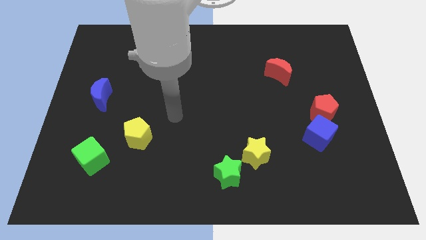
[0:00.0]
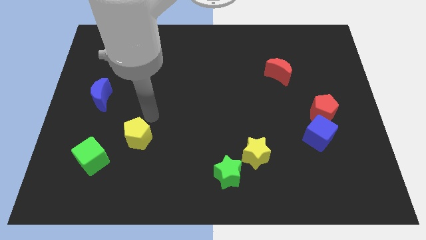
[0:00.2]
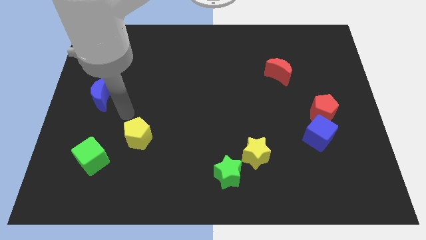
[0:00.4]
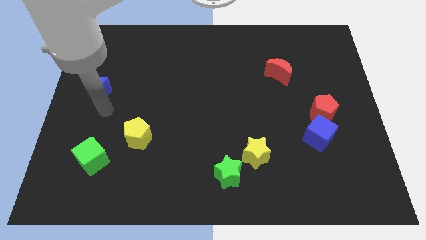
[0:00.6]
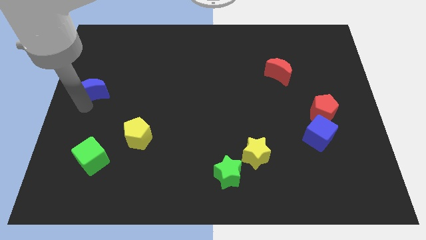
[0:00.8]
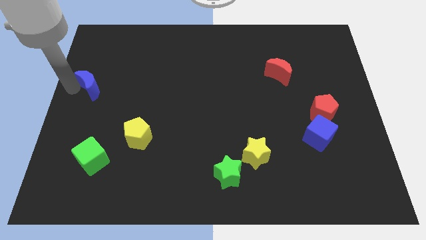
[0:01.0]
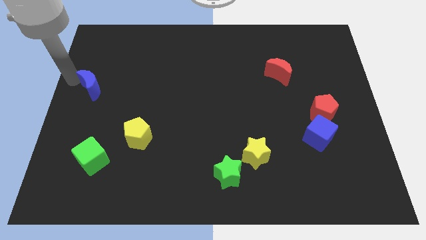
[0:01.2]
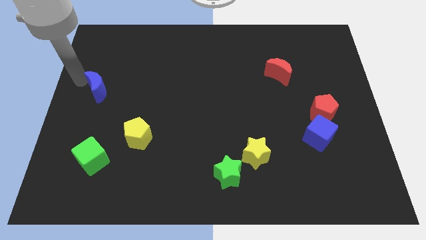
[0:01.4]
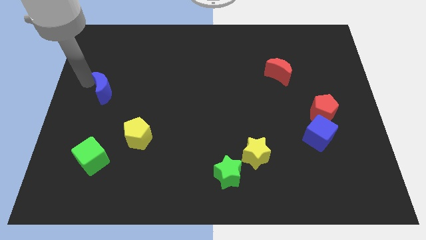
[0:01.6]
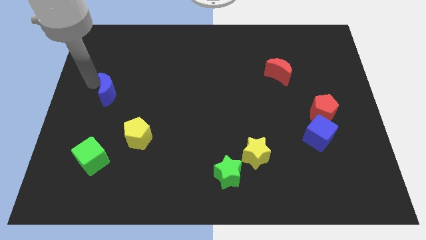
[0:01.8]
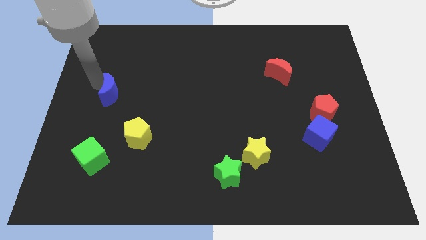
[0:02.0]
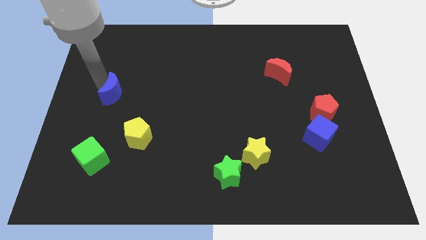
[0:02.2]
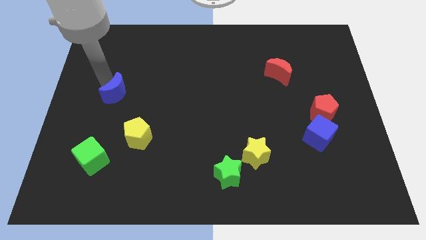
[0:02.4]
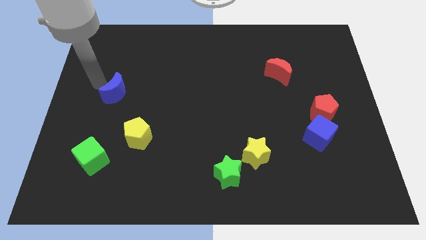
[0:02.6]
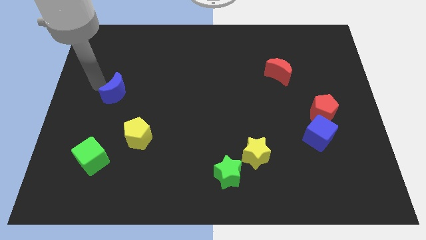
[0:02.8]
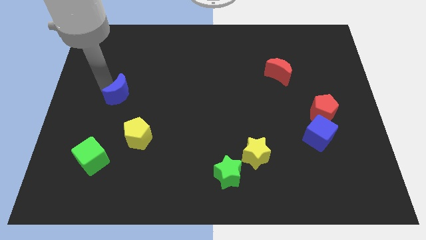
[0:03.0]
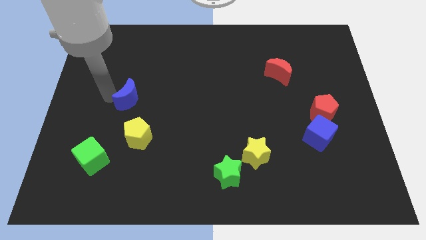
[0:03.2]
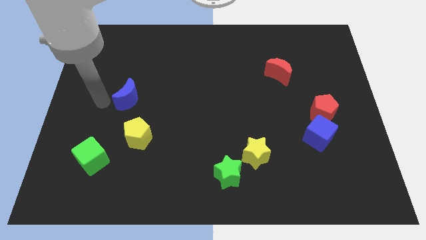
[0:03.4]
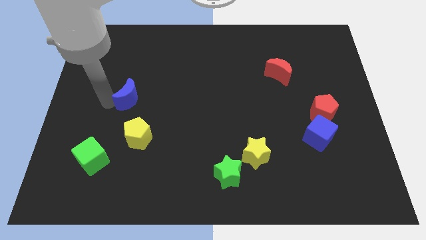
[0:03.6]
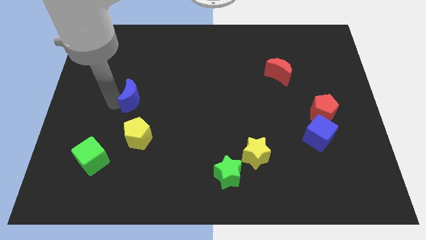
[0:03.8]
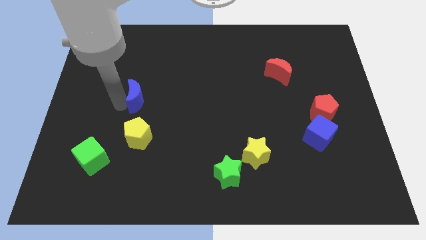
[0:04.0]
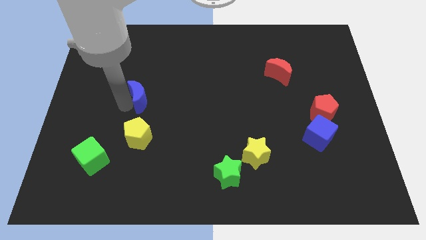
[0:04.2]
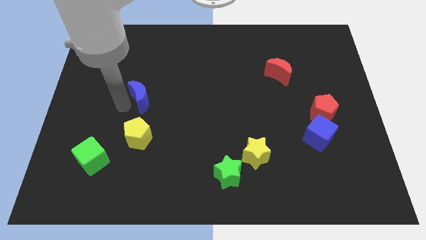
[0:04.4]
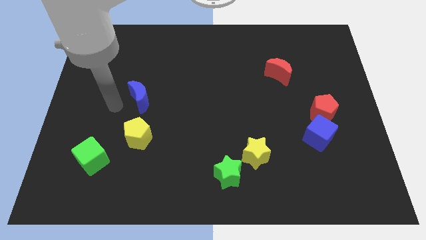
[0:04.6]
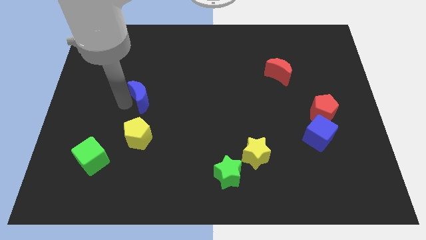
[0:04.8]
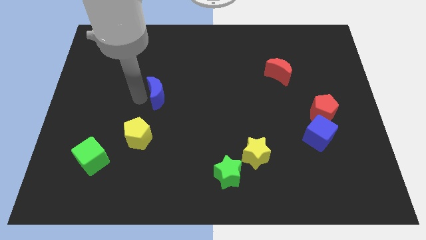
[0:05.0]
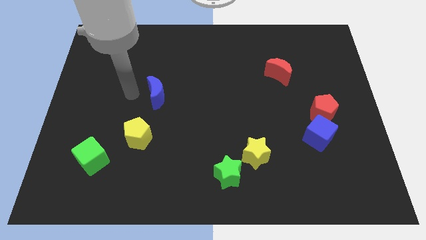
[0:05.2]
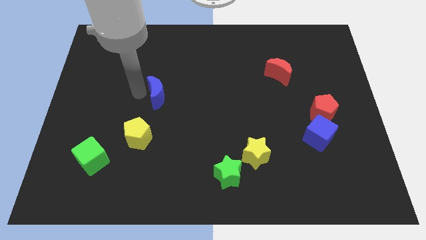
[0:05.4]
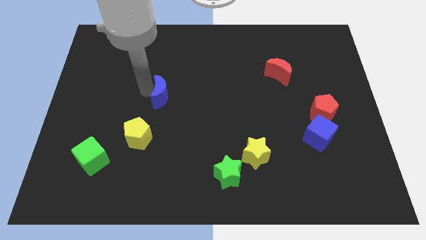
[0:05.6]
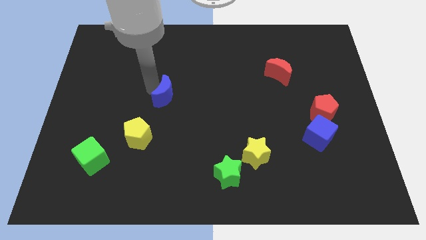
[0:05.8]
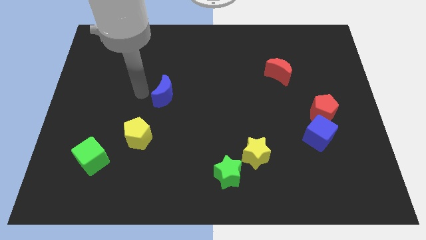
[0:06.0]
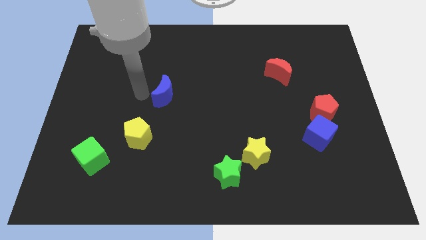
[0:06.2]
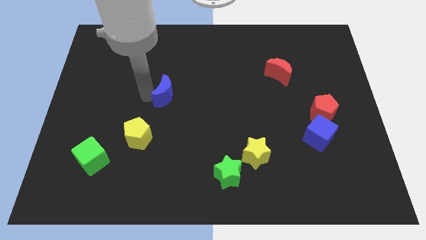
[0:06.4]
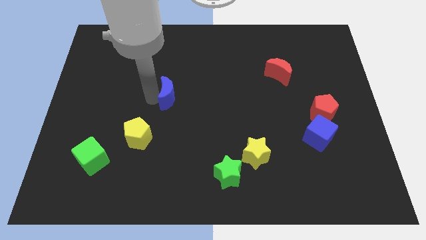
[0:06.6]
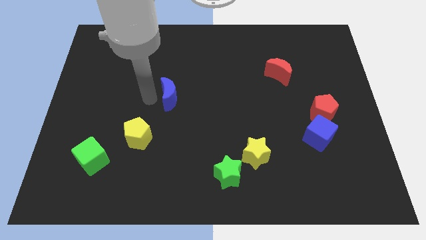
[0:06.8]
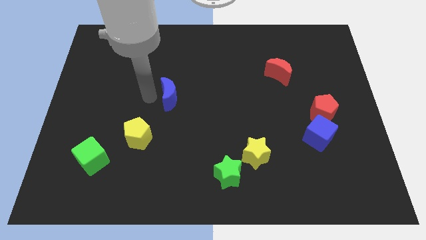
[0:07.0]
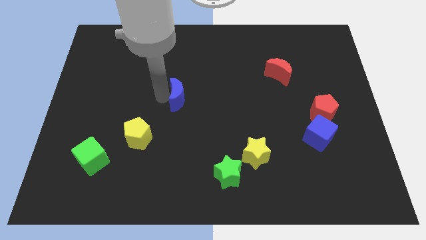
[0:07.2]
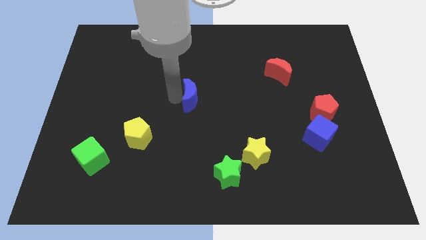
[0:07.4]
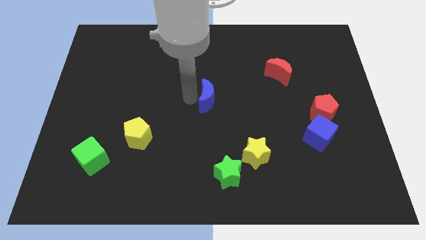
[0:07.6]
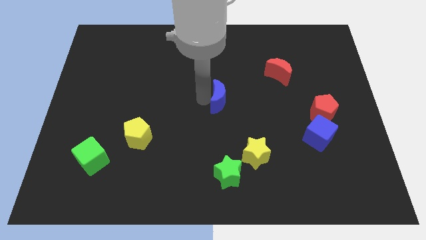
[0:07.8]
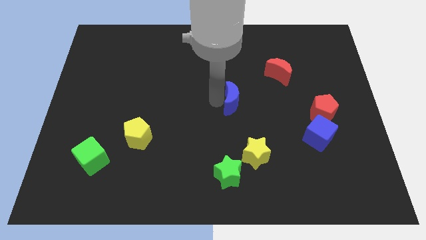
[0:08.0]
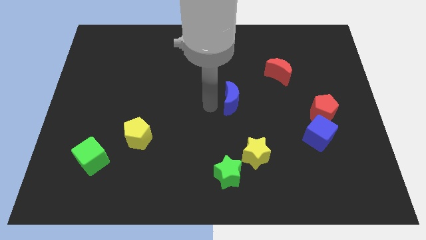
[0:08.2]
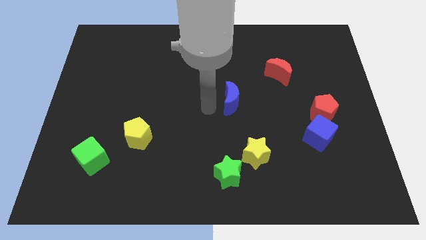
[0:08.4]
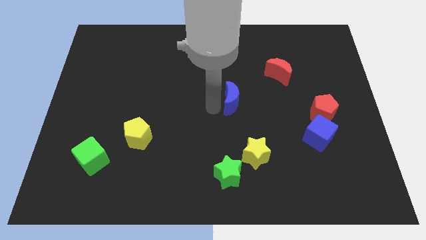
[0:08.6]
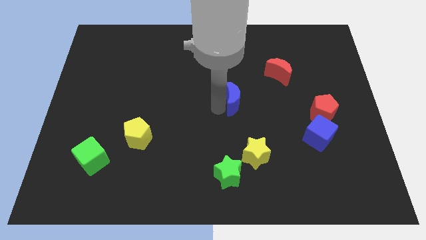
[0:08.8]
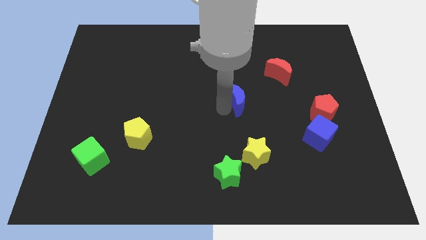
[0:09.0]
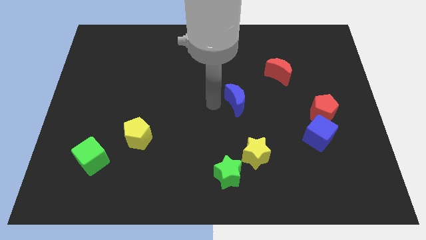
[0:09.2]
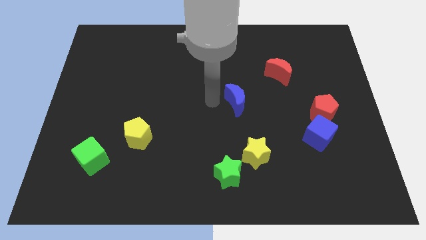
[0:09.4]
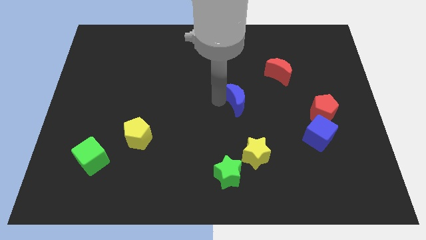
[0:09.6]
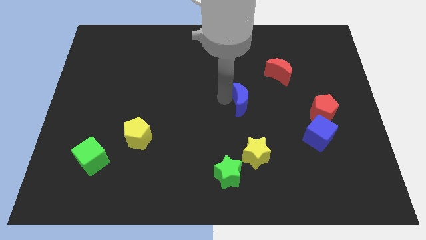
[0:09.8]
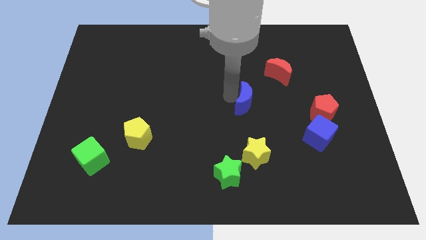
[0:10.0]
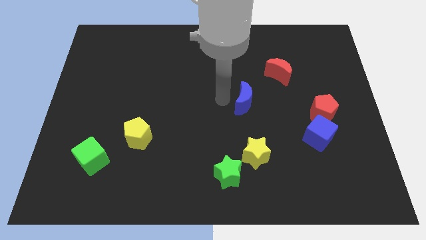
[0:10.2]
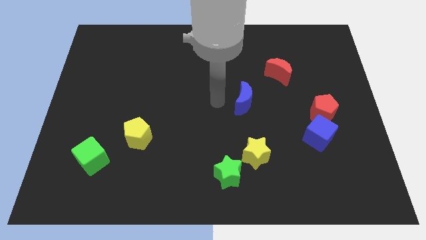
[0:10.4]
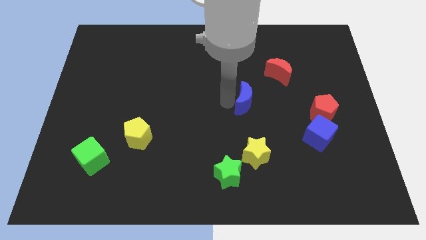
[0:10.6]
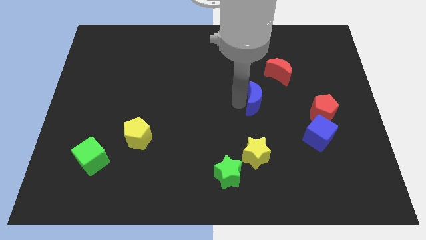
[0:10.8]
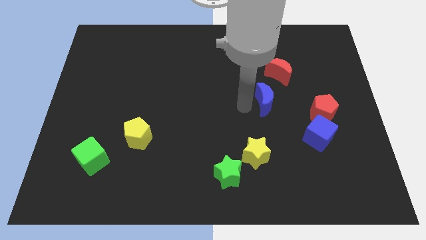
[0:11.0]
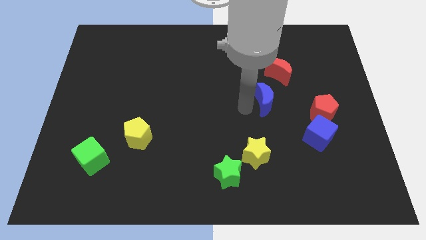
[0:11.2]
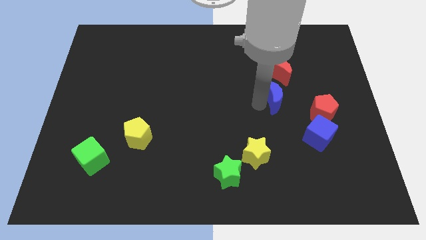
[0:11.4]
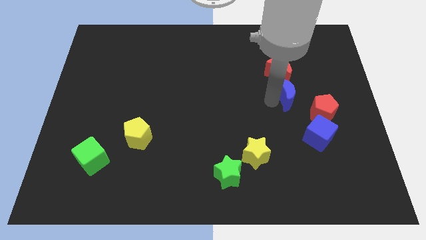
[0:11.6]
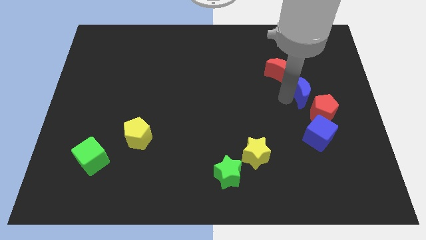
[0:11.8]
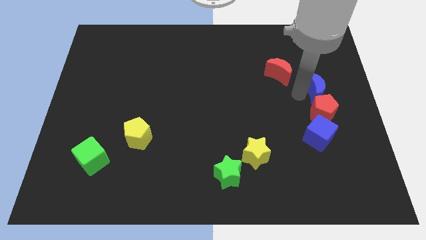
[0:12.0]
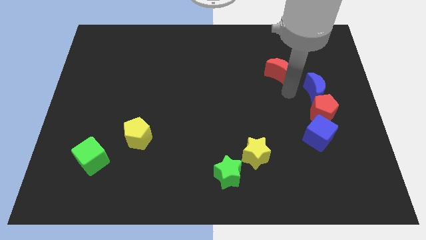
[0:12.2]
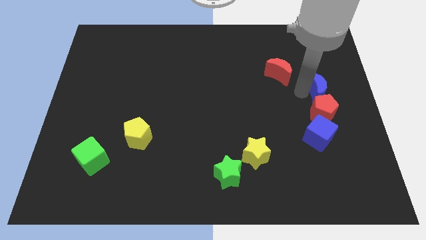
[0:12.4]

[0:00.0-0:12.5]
push the blue moon to the right side of the board
